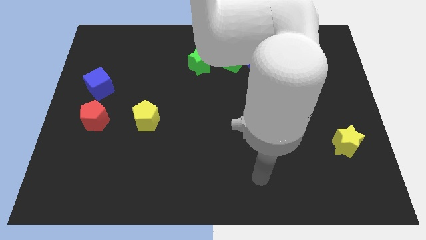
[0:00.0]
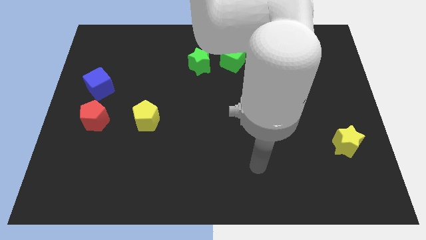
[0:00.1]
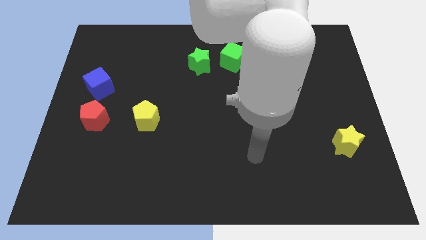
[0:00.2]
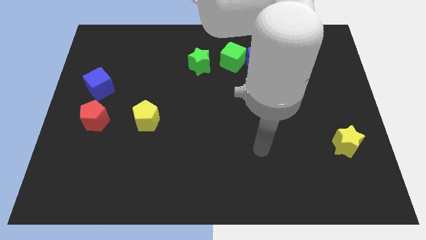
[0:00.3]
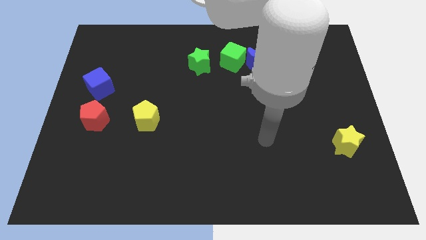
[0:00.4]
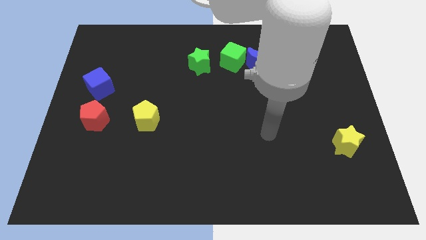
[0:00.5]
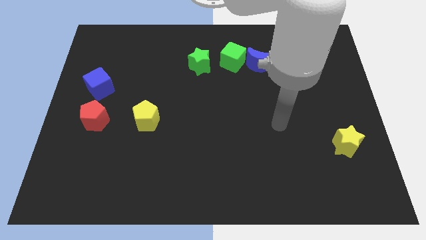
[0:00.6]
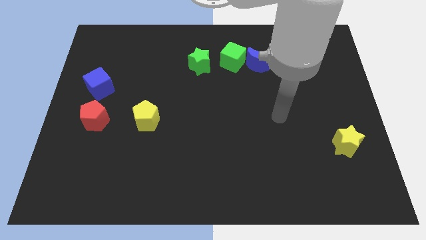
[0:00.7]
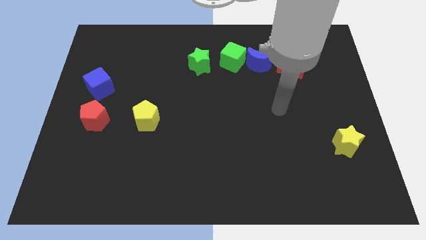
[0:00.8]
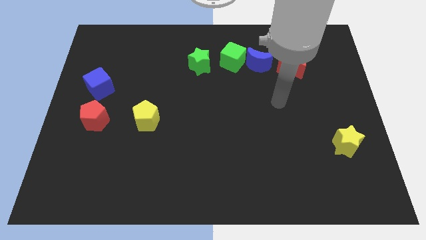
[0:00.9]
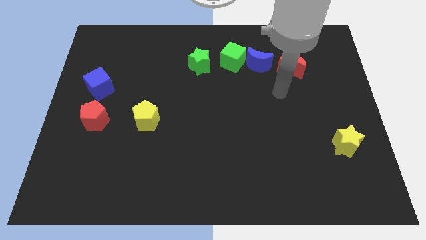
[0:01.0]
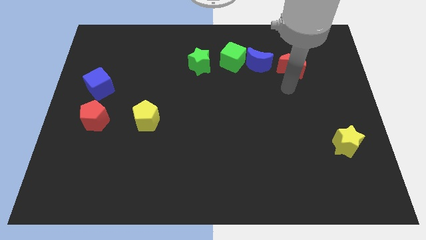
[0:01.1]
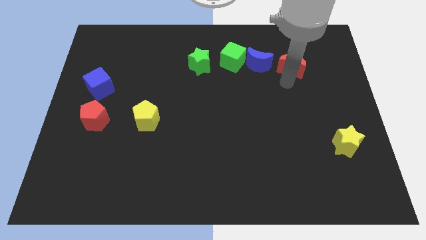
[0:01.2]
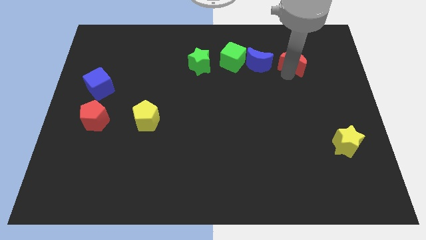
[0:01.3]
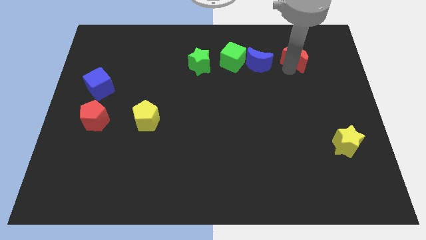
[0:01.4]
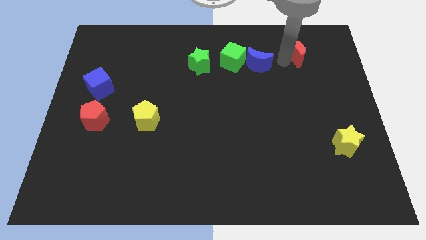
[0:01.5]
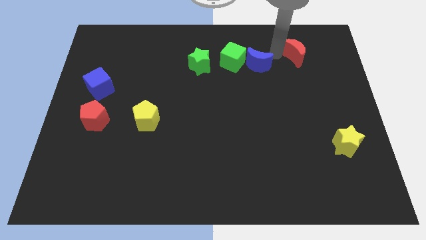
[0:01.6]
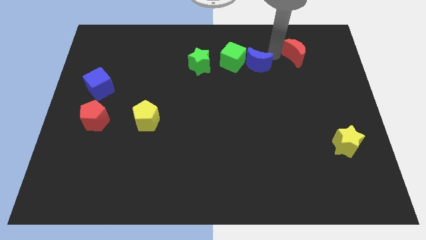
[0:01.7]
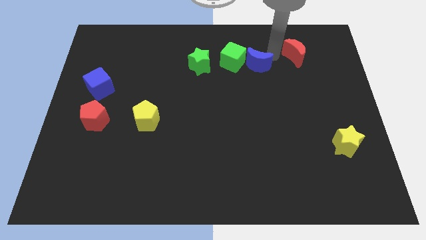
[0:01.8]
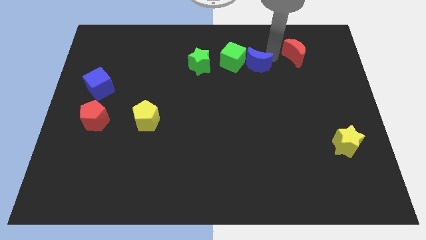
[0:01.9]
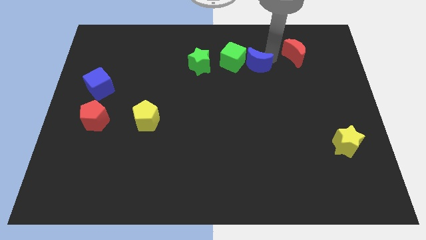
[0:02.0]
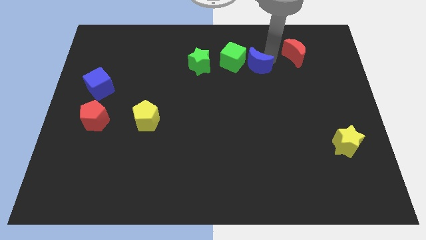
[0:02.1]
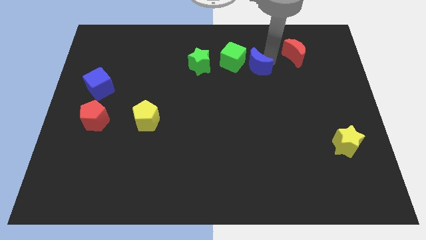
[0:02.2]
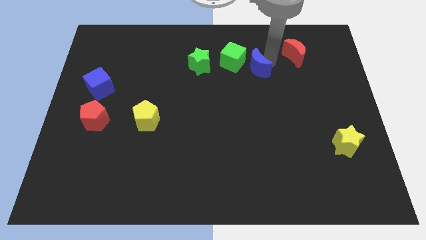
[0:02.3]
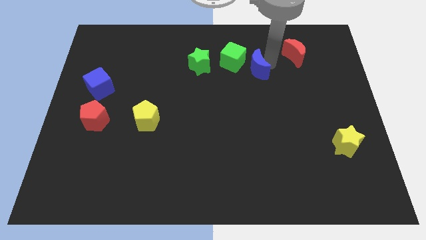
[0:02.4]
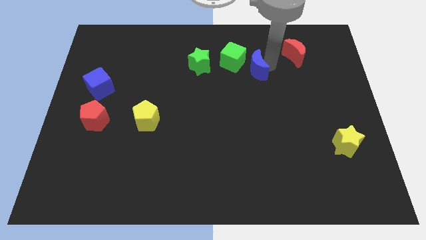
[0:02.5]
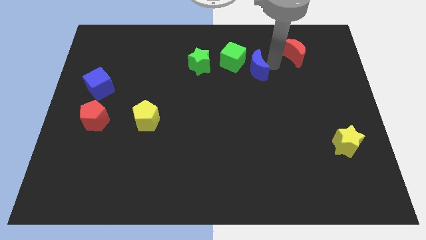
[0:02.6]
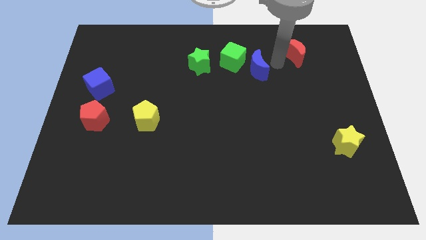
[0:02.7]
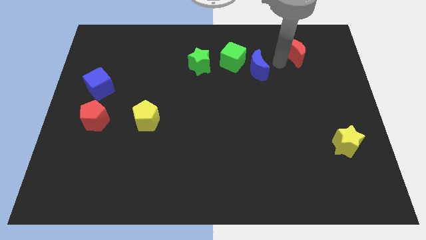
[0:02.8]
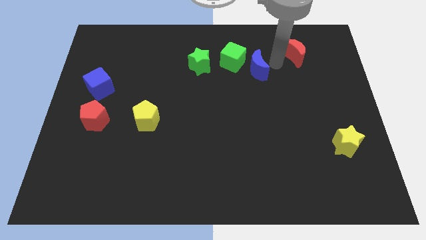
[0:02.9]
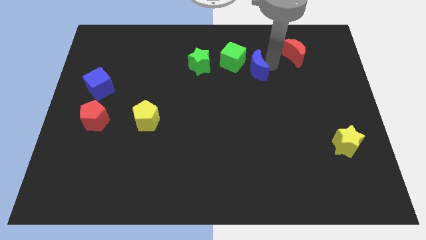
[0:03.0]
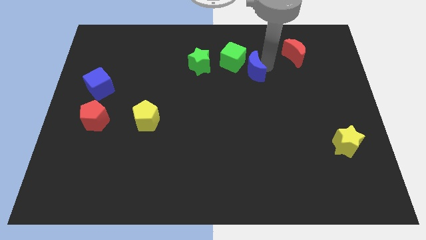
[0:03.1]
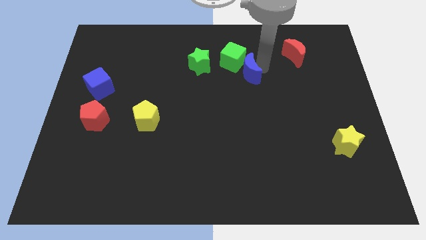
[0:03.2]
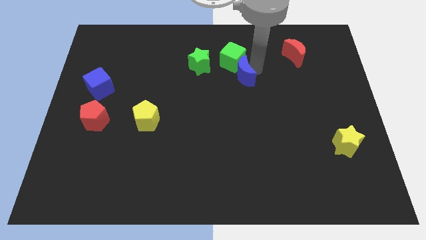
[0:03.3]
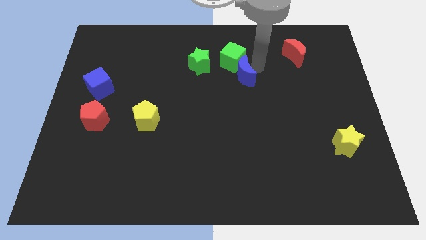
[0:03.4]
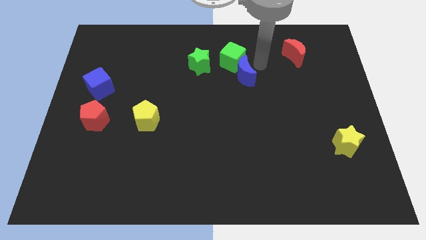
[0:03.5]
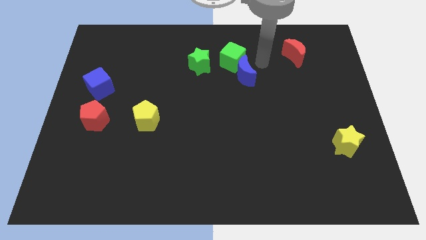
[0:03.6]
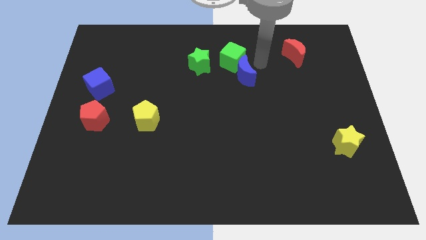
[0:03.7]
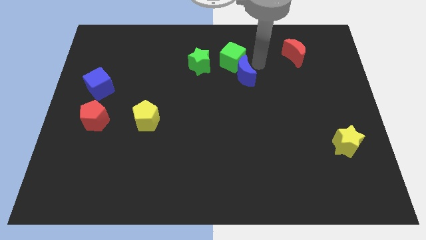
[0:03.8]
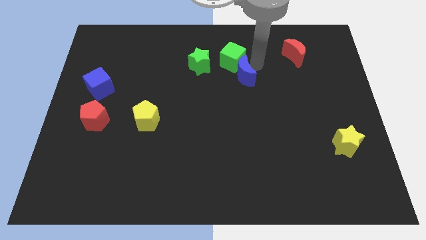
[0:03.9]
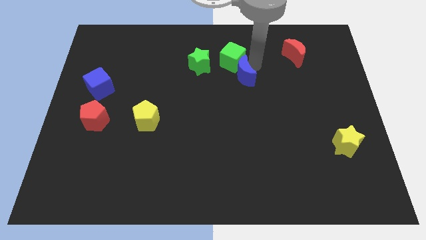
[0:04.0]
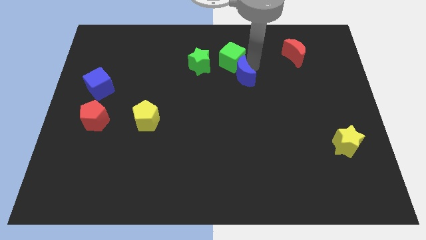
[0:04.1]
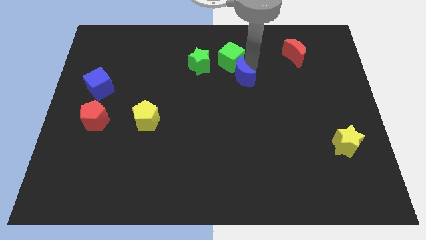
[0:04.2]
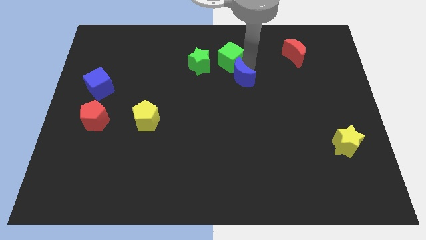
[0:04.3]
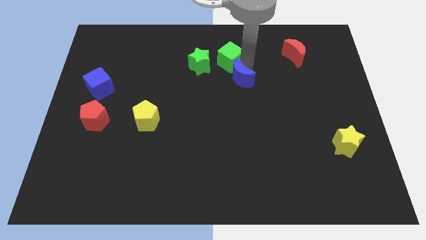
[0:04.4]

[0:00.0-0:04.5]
push the blue moon slightly diagonally downwards and left

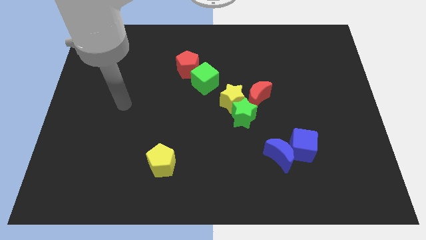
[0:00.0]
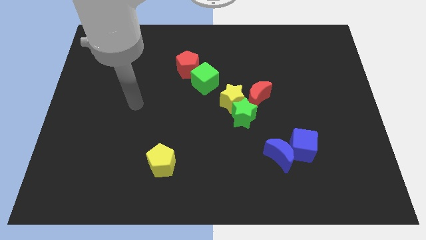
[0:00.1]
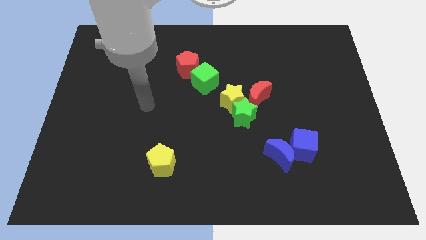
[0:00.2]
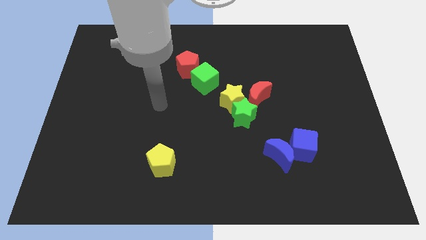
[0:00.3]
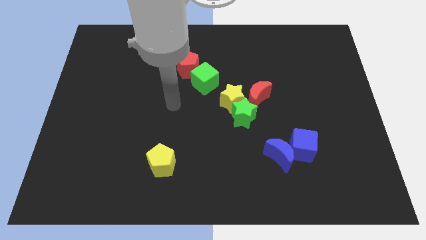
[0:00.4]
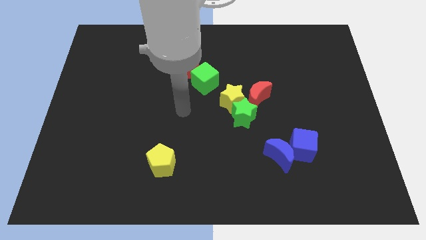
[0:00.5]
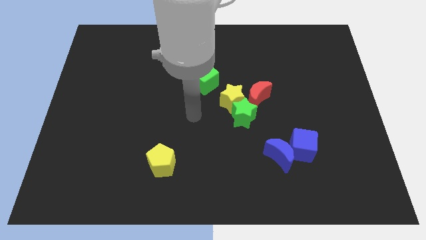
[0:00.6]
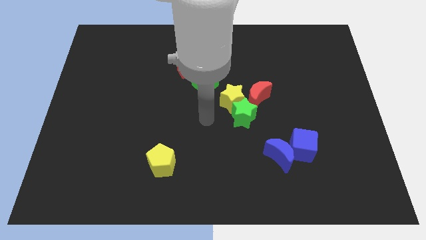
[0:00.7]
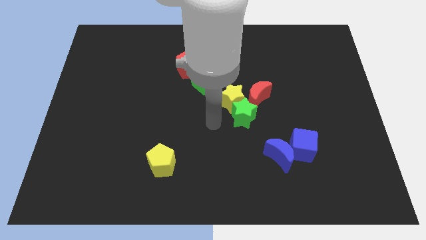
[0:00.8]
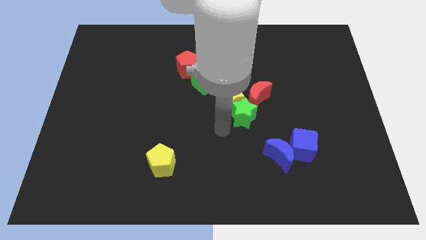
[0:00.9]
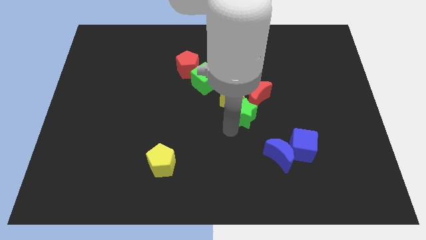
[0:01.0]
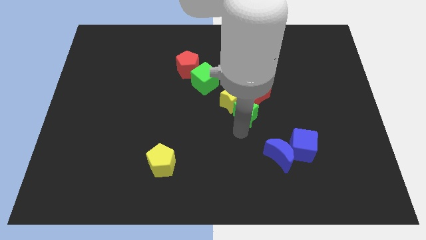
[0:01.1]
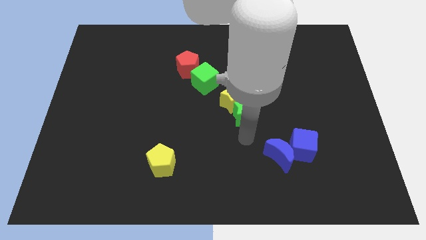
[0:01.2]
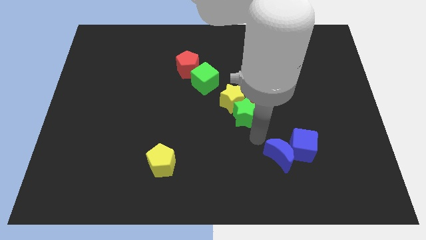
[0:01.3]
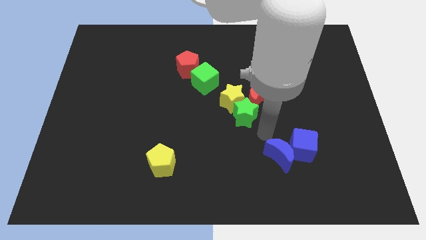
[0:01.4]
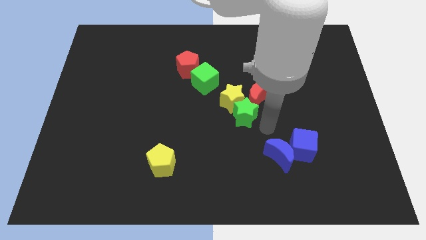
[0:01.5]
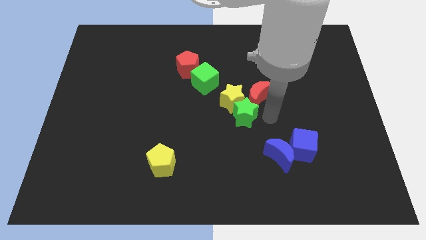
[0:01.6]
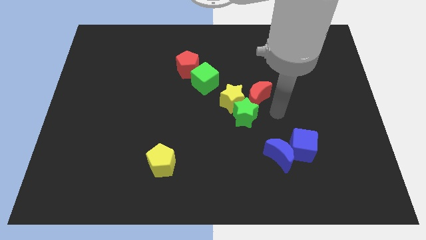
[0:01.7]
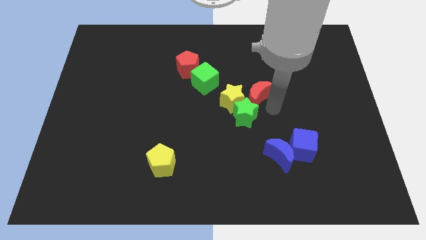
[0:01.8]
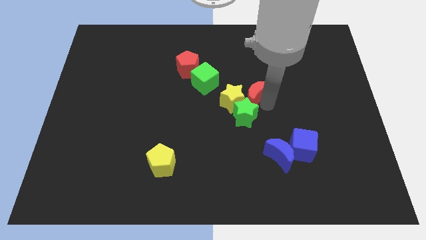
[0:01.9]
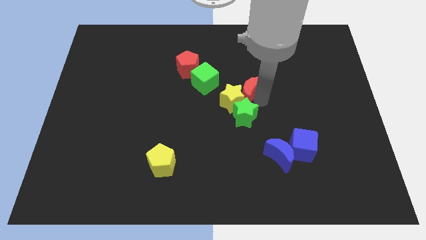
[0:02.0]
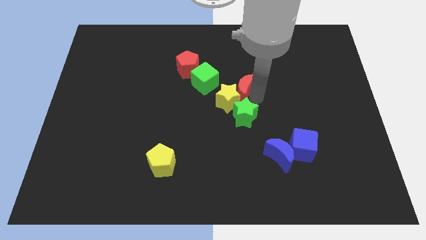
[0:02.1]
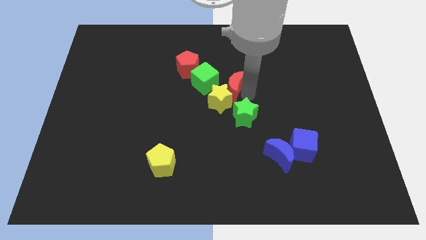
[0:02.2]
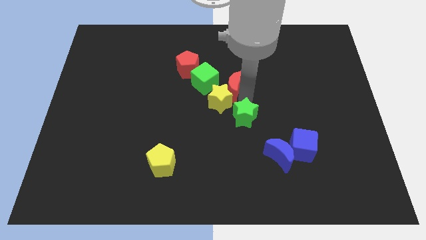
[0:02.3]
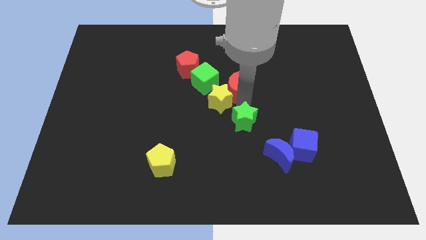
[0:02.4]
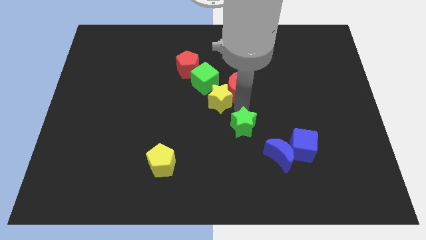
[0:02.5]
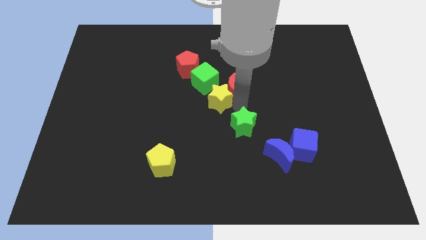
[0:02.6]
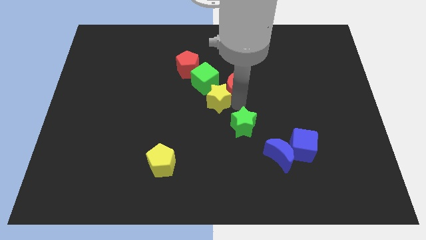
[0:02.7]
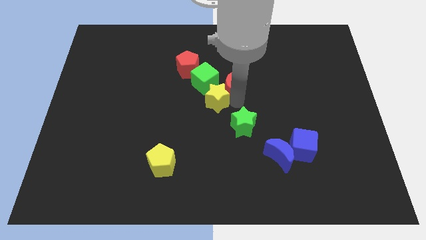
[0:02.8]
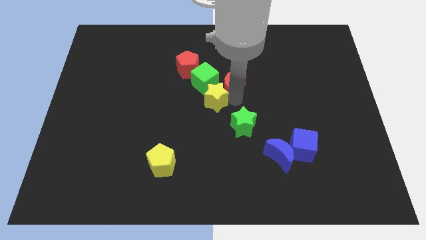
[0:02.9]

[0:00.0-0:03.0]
slide the red moon upwards and then left a little

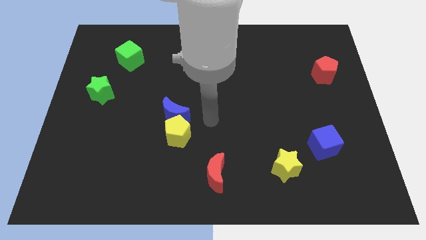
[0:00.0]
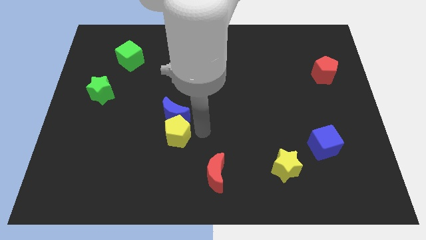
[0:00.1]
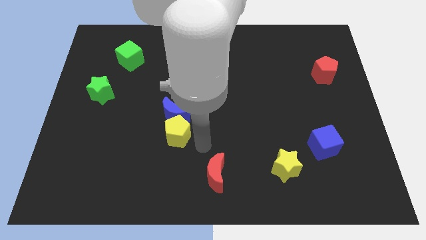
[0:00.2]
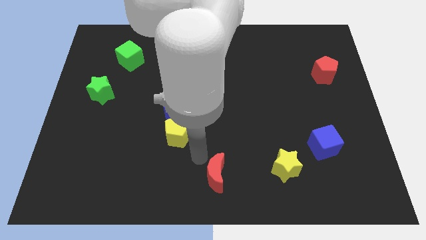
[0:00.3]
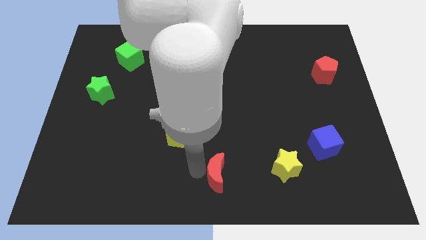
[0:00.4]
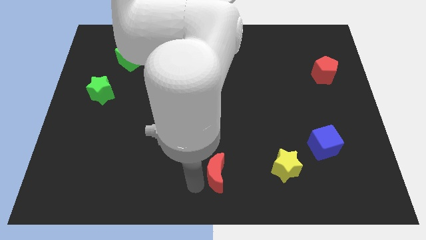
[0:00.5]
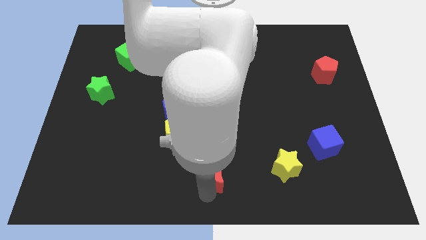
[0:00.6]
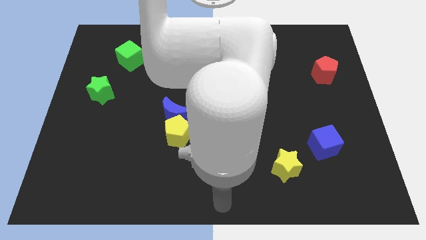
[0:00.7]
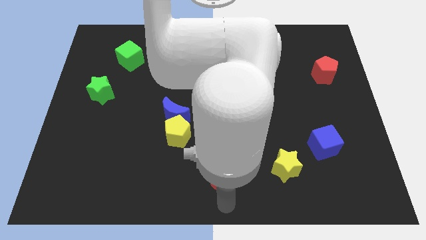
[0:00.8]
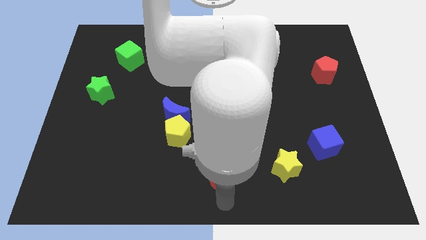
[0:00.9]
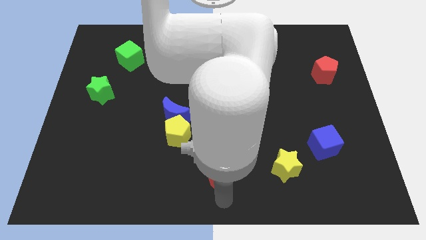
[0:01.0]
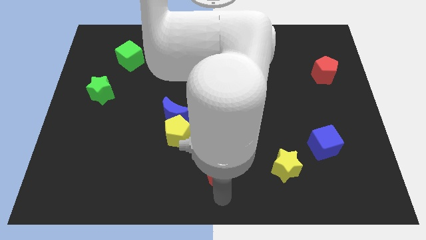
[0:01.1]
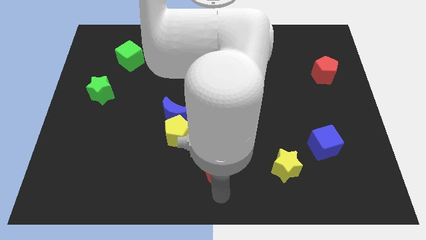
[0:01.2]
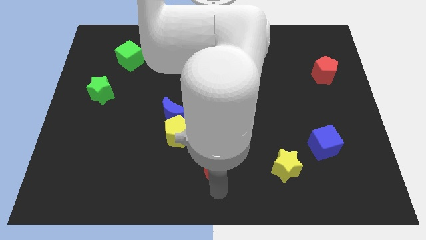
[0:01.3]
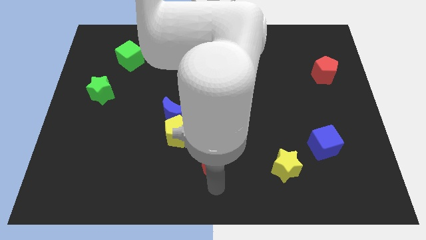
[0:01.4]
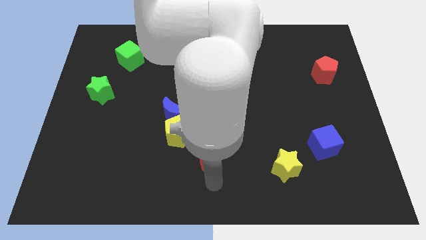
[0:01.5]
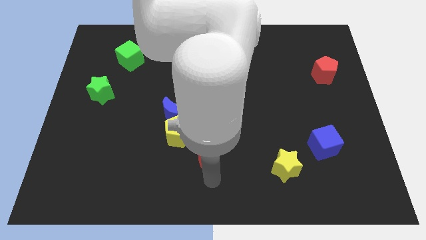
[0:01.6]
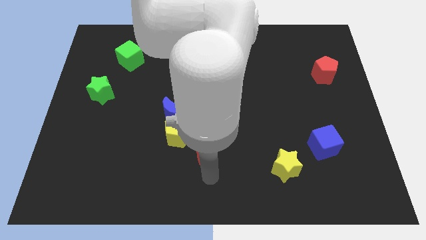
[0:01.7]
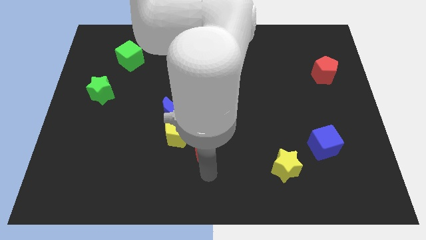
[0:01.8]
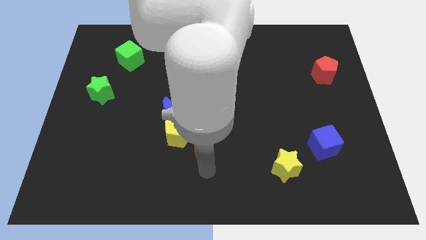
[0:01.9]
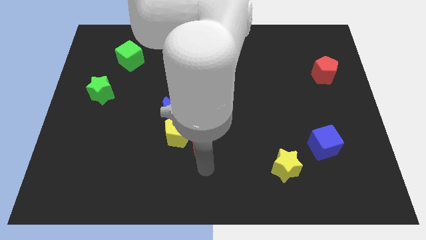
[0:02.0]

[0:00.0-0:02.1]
push the red moon somewhat up
